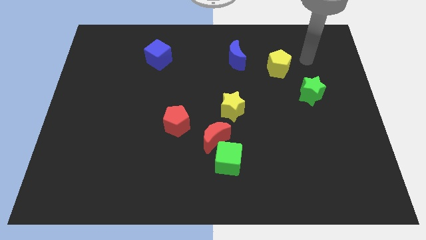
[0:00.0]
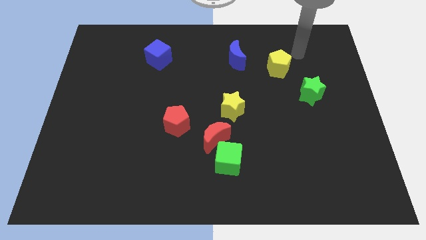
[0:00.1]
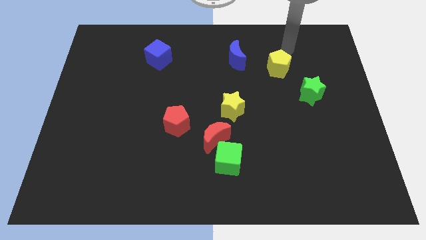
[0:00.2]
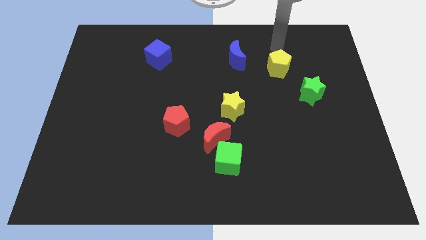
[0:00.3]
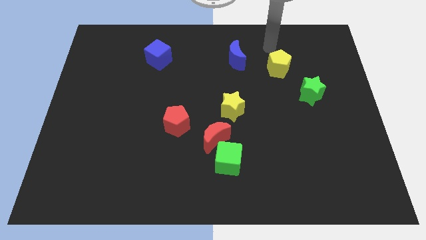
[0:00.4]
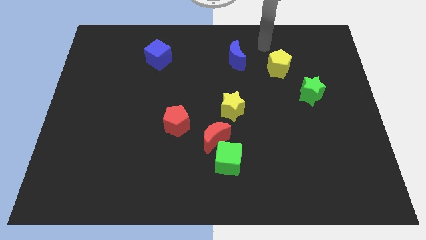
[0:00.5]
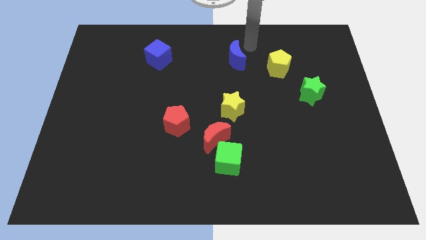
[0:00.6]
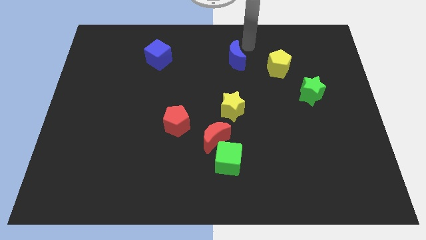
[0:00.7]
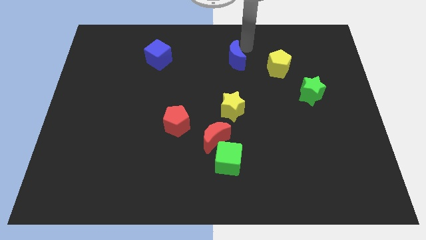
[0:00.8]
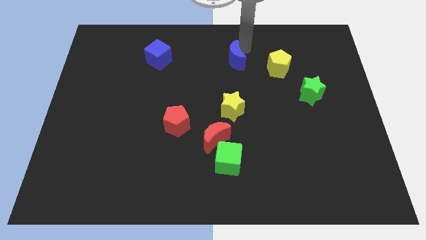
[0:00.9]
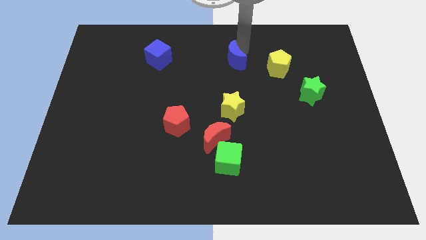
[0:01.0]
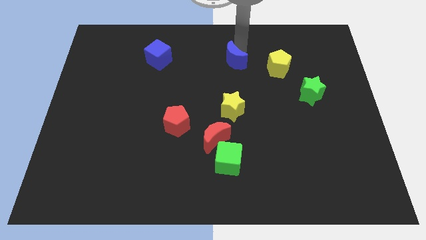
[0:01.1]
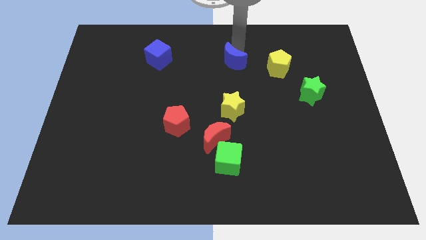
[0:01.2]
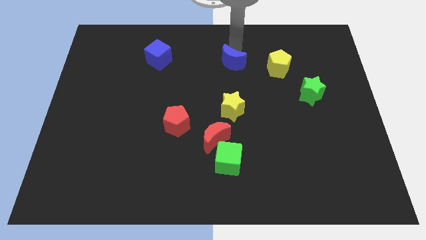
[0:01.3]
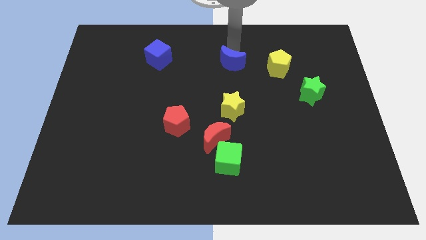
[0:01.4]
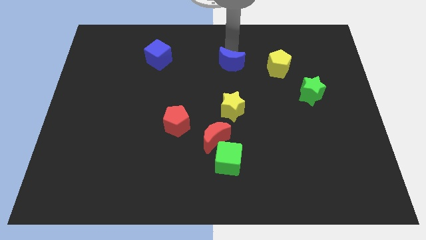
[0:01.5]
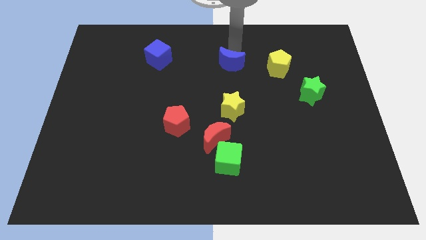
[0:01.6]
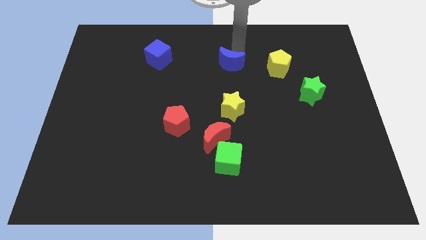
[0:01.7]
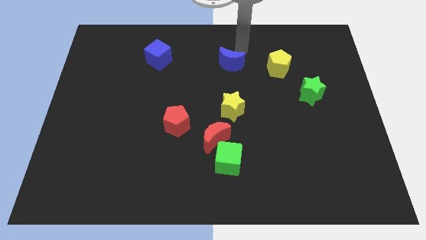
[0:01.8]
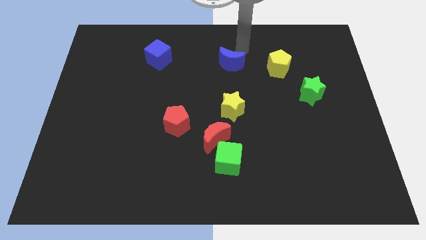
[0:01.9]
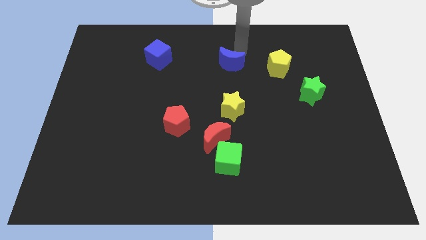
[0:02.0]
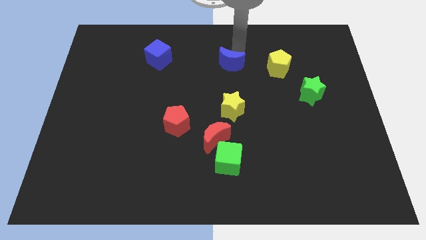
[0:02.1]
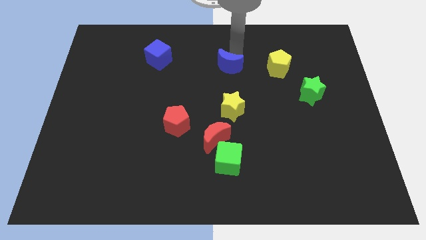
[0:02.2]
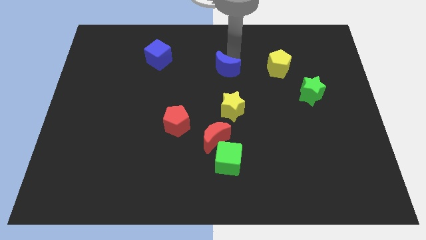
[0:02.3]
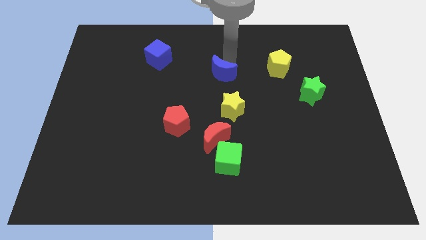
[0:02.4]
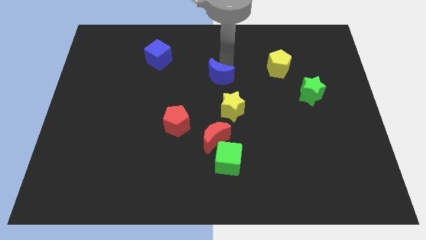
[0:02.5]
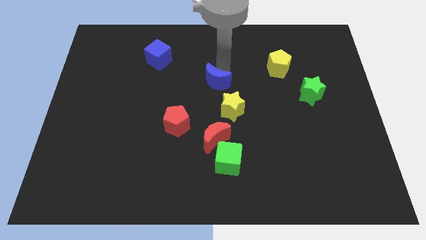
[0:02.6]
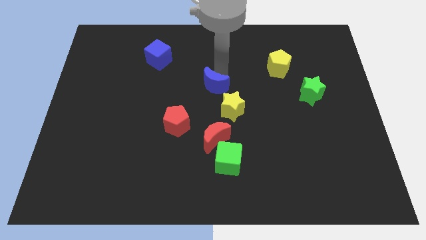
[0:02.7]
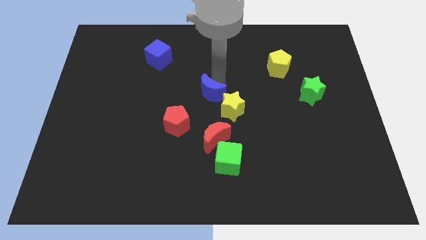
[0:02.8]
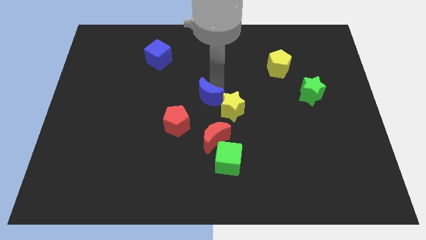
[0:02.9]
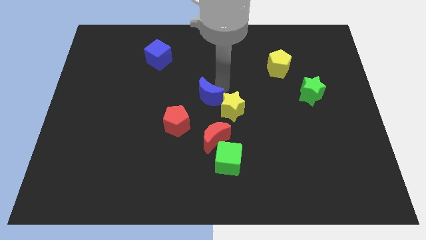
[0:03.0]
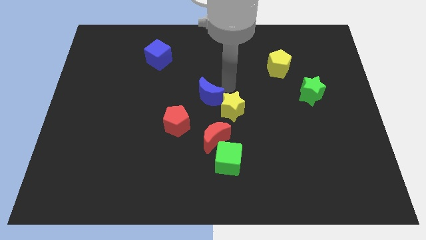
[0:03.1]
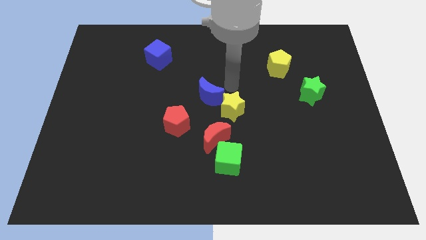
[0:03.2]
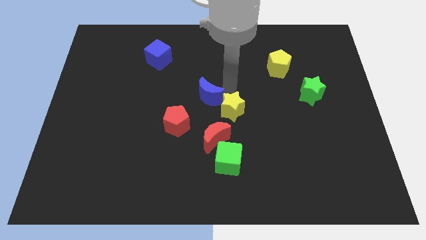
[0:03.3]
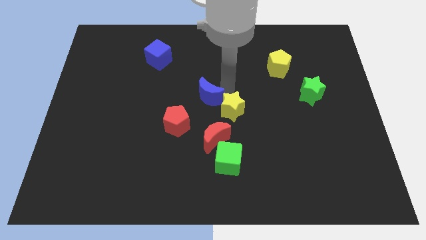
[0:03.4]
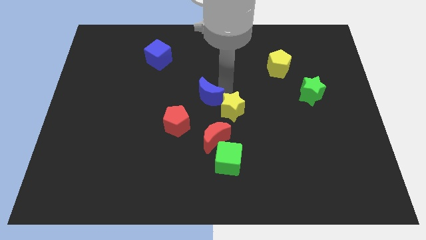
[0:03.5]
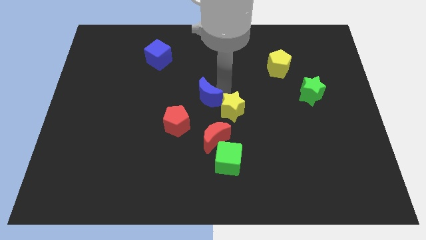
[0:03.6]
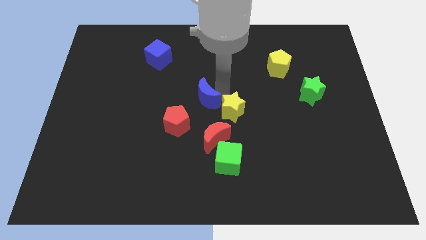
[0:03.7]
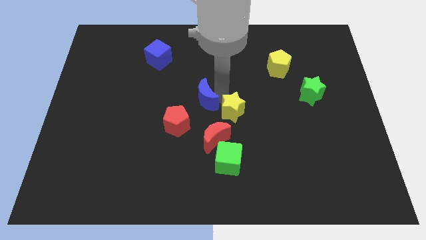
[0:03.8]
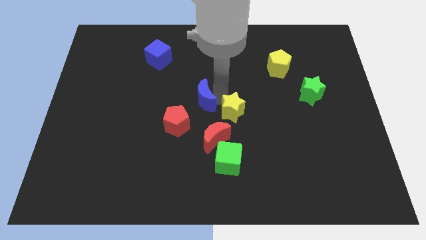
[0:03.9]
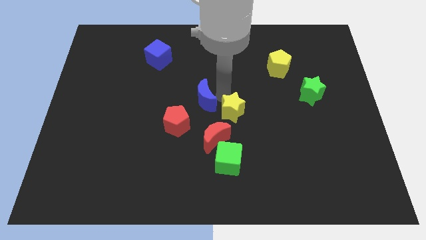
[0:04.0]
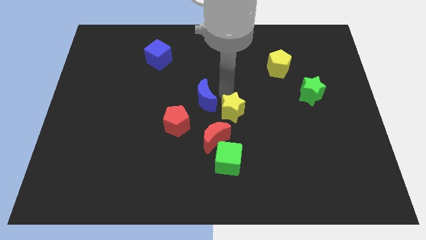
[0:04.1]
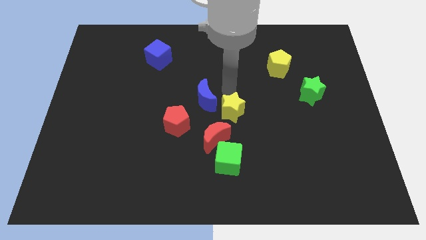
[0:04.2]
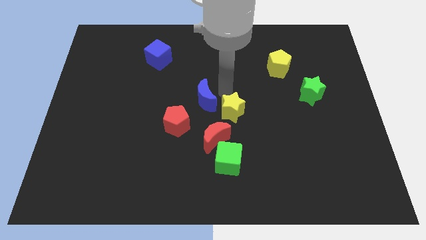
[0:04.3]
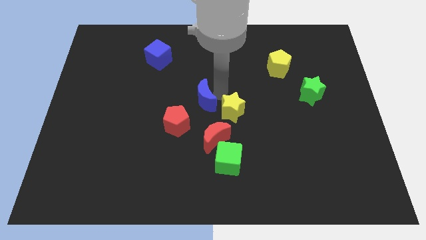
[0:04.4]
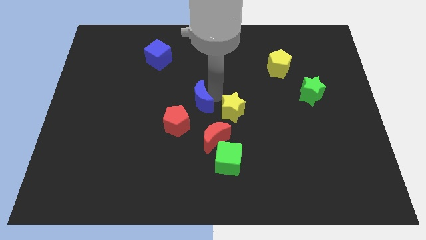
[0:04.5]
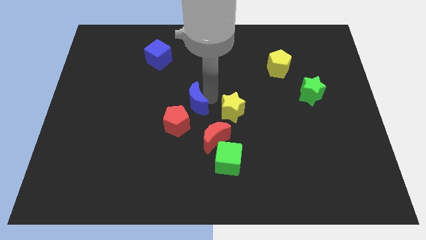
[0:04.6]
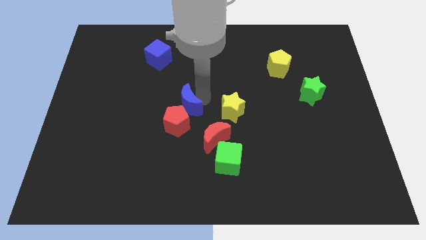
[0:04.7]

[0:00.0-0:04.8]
push the blue moon next to the red pentagon

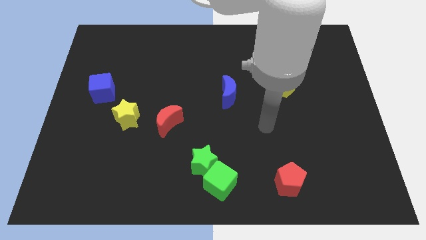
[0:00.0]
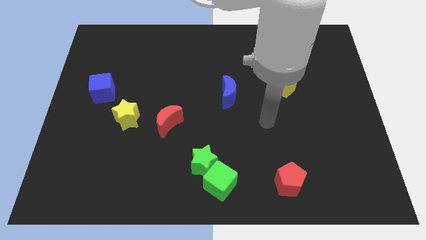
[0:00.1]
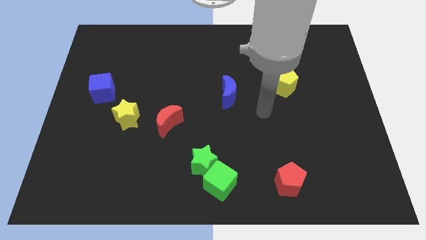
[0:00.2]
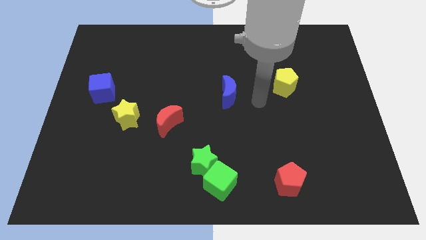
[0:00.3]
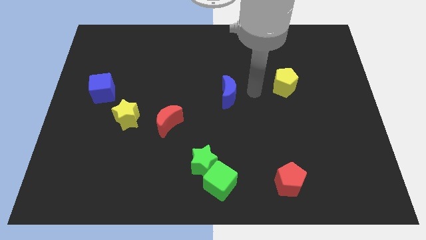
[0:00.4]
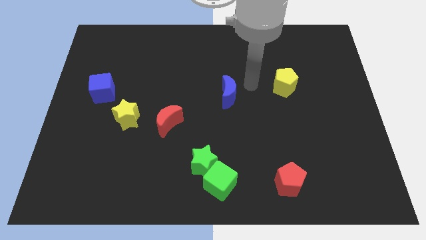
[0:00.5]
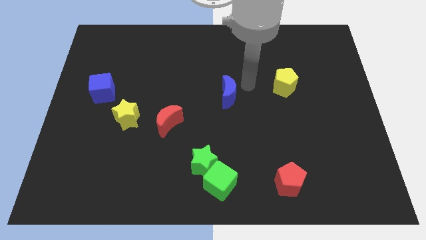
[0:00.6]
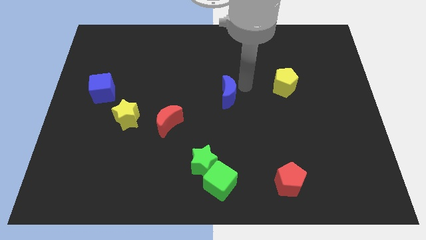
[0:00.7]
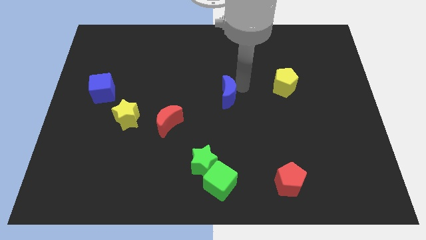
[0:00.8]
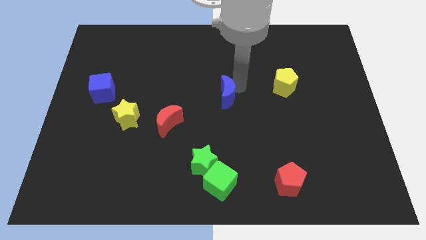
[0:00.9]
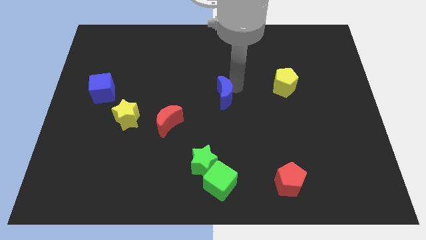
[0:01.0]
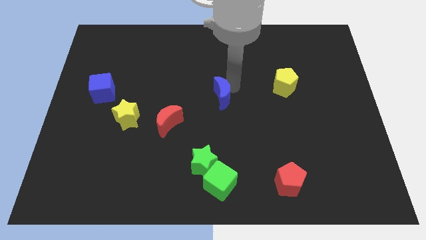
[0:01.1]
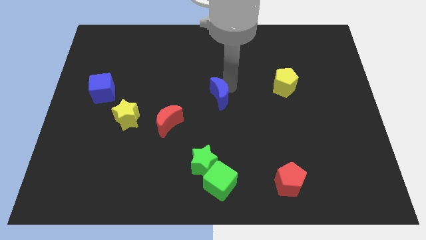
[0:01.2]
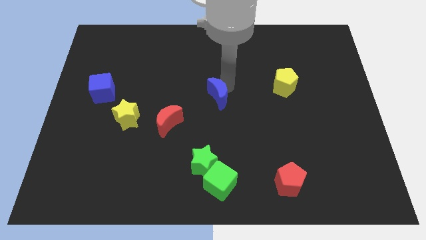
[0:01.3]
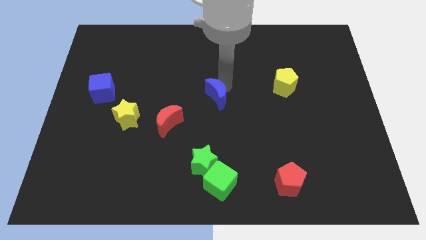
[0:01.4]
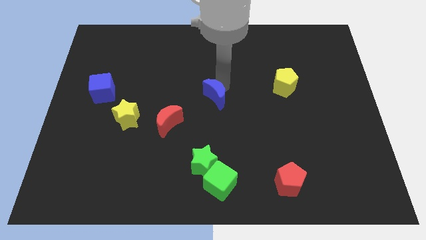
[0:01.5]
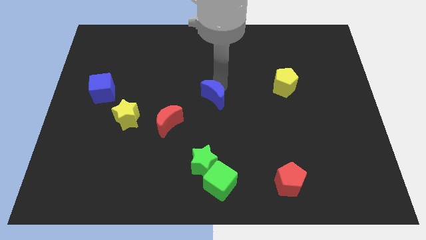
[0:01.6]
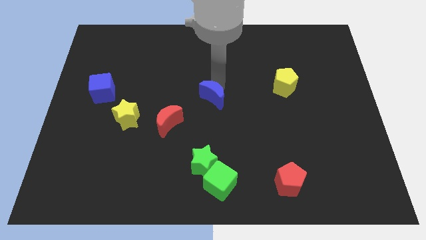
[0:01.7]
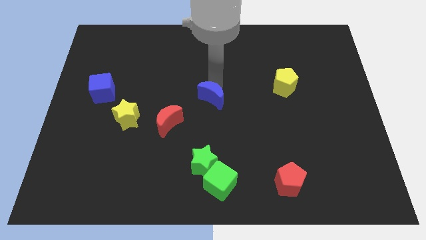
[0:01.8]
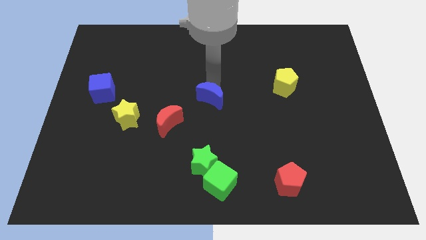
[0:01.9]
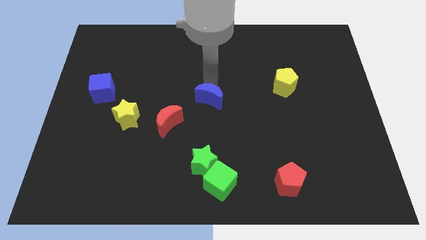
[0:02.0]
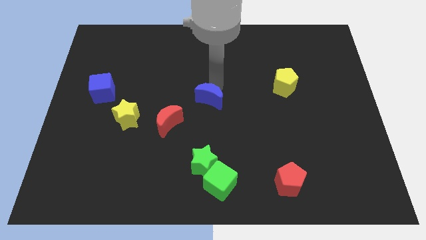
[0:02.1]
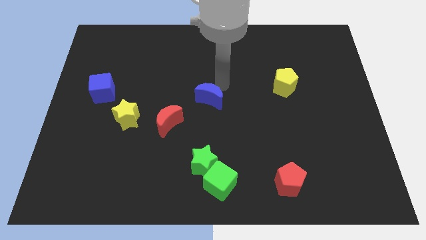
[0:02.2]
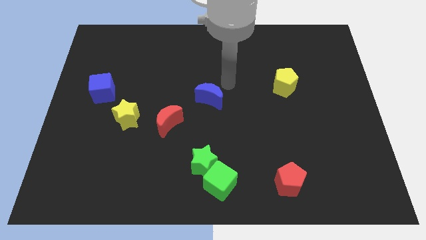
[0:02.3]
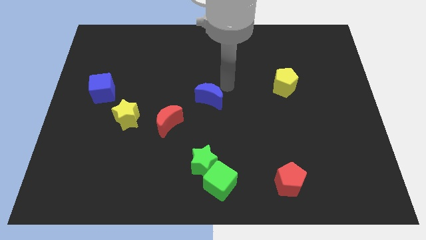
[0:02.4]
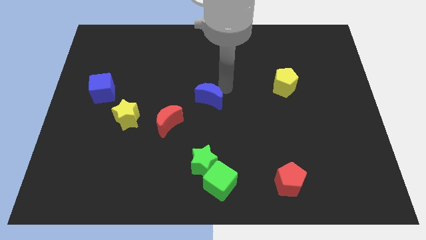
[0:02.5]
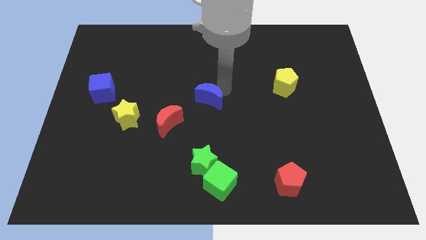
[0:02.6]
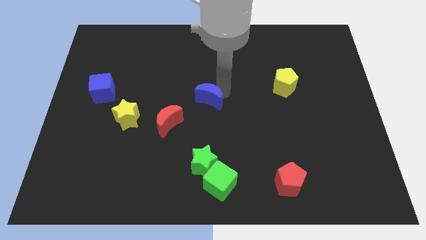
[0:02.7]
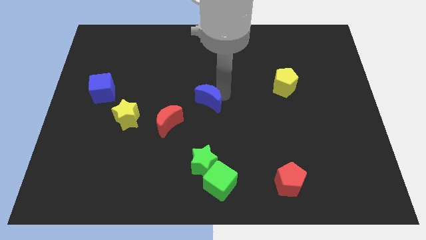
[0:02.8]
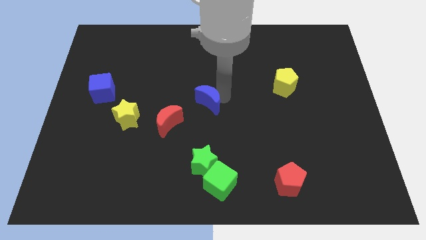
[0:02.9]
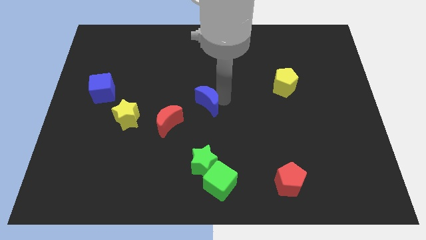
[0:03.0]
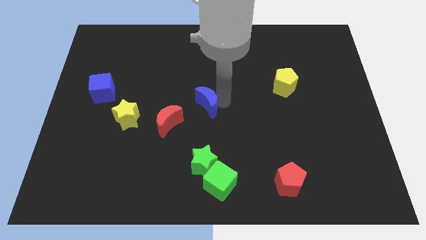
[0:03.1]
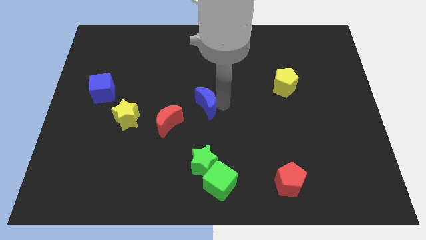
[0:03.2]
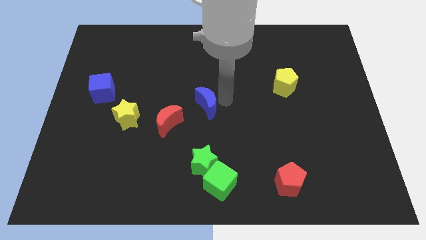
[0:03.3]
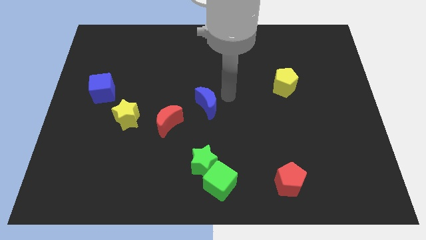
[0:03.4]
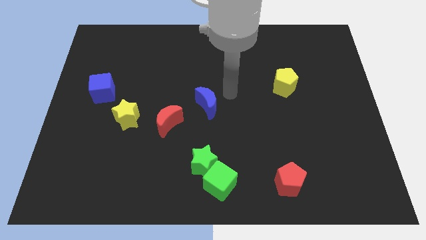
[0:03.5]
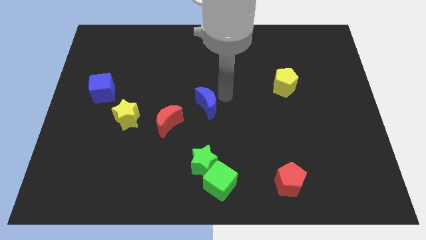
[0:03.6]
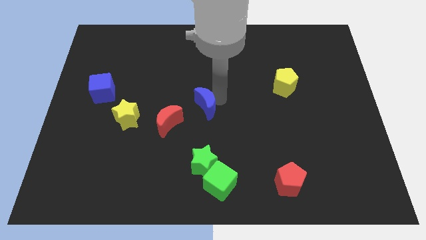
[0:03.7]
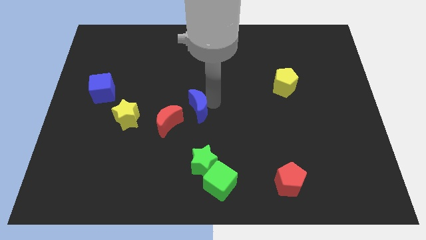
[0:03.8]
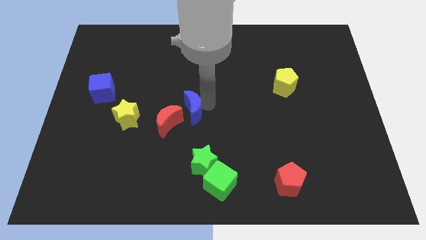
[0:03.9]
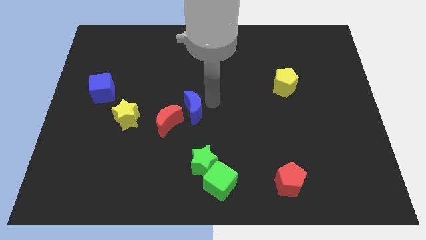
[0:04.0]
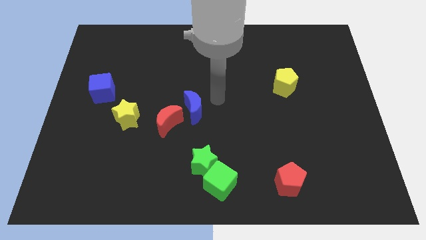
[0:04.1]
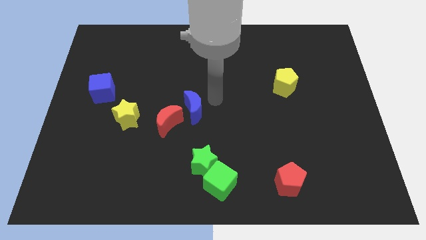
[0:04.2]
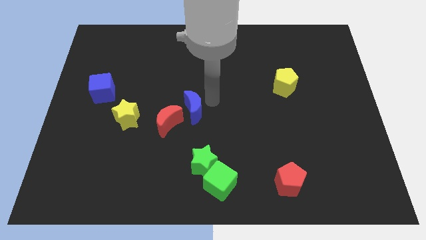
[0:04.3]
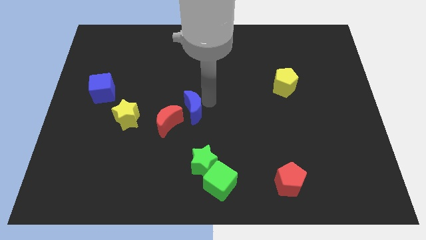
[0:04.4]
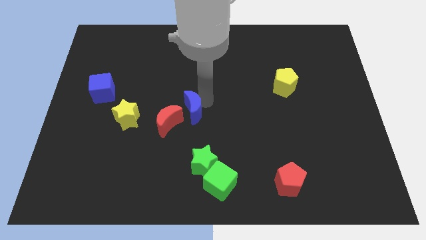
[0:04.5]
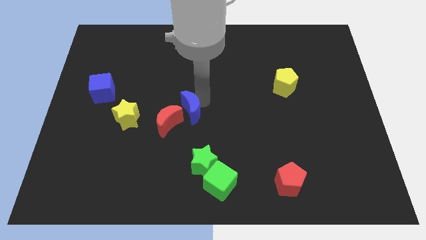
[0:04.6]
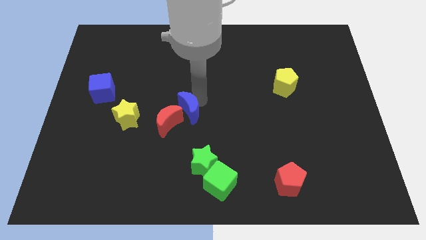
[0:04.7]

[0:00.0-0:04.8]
push the blue moon close to the red moon
